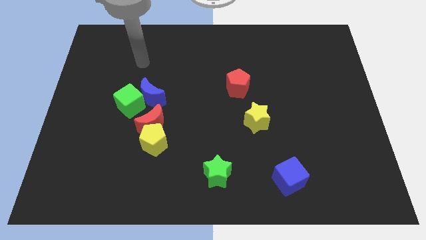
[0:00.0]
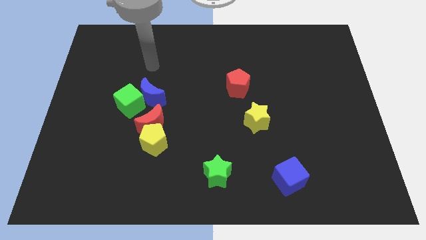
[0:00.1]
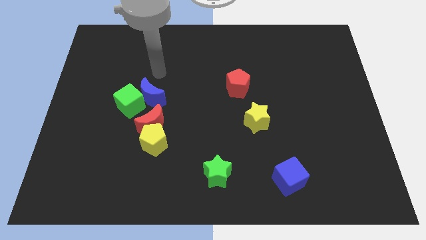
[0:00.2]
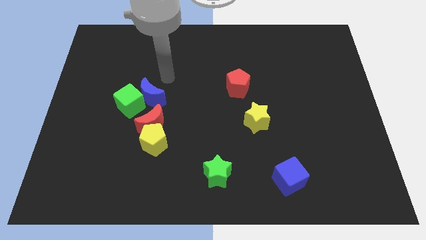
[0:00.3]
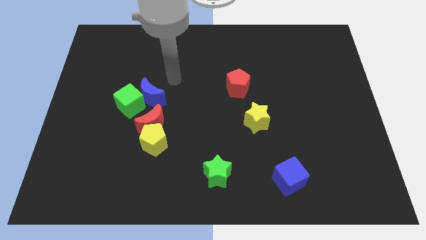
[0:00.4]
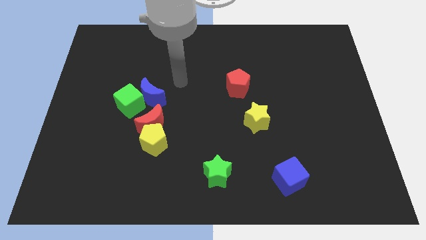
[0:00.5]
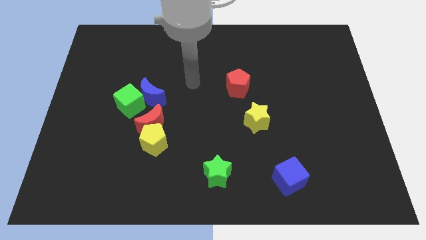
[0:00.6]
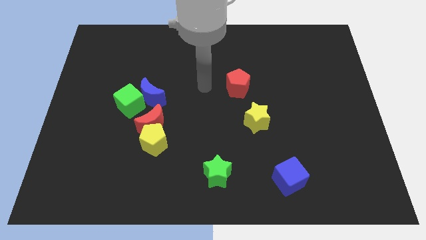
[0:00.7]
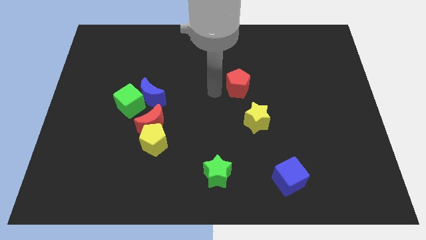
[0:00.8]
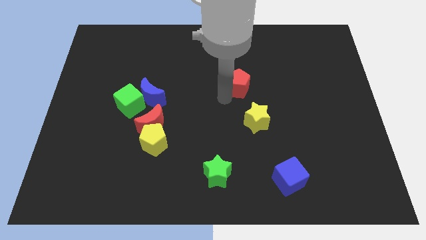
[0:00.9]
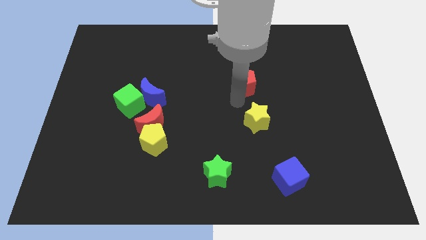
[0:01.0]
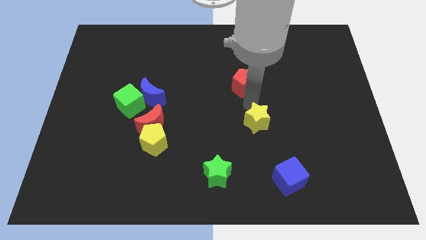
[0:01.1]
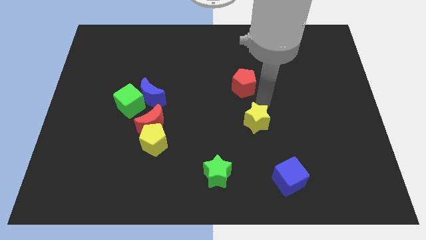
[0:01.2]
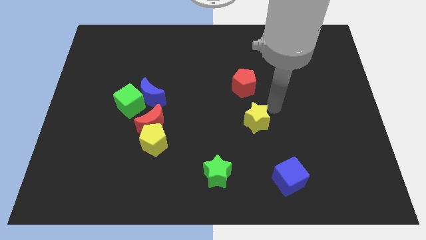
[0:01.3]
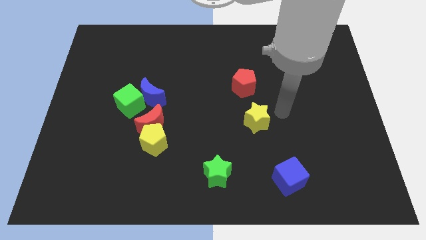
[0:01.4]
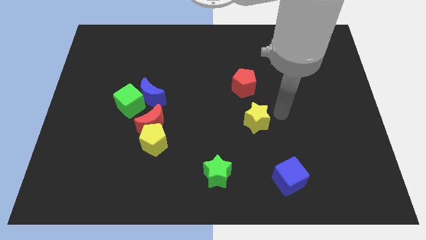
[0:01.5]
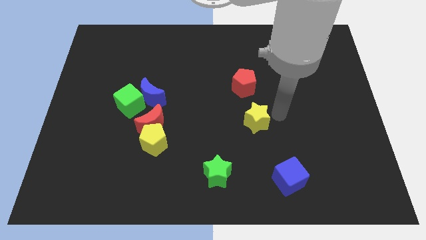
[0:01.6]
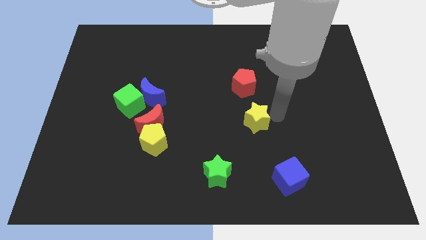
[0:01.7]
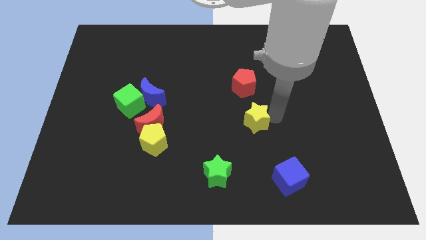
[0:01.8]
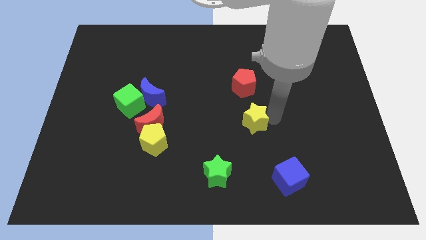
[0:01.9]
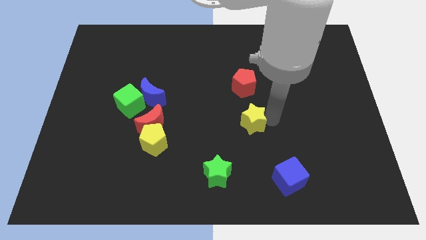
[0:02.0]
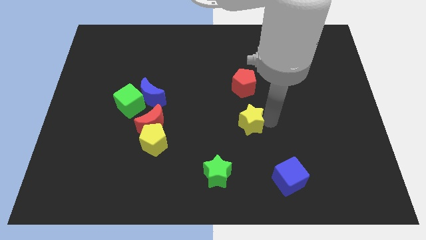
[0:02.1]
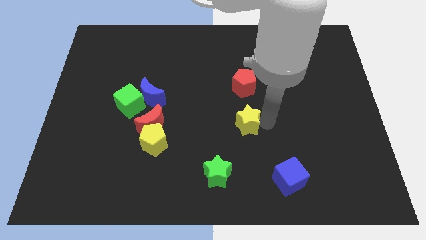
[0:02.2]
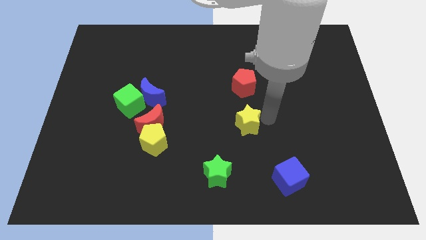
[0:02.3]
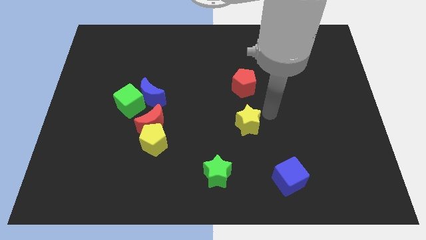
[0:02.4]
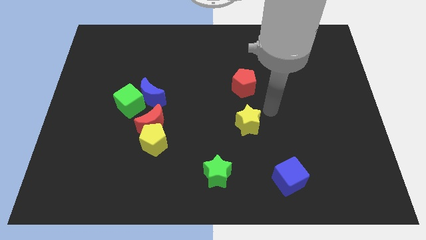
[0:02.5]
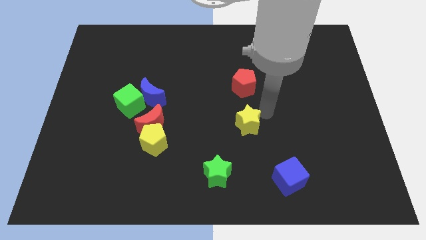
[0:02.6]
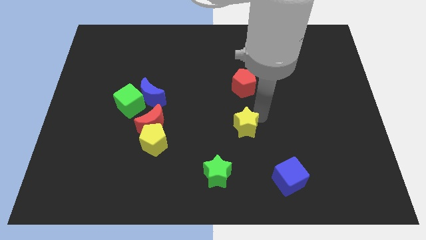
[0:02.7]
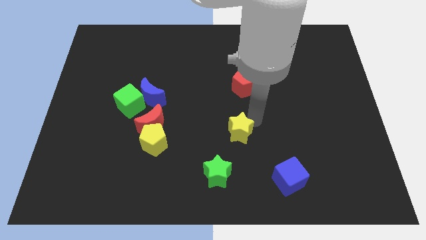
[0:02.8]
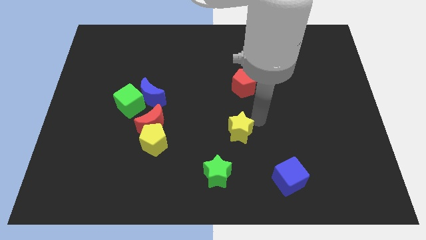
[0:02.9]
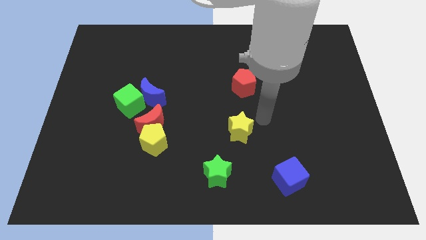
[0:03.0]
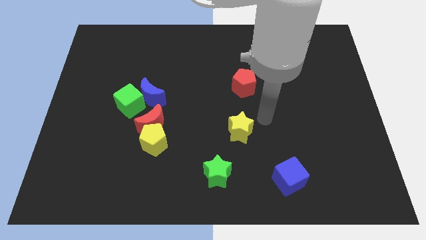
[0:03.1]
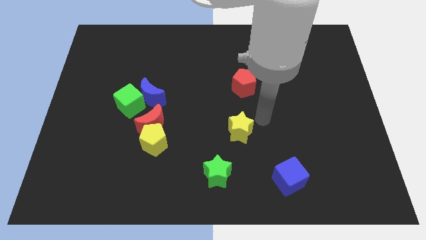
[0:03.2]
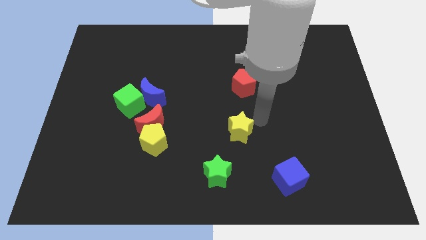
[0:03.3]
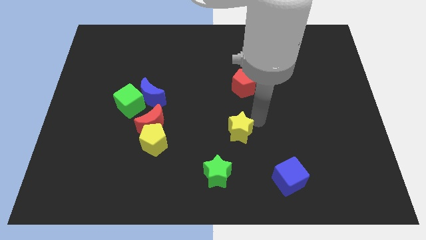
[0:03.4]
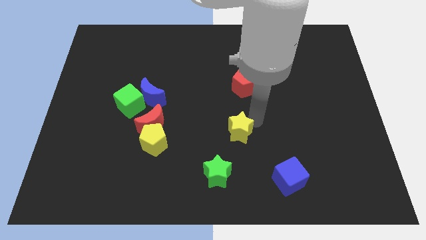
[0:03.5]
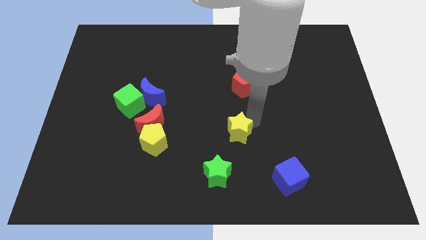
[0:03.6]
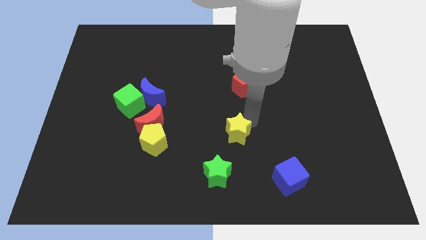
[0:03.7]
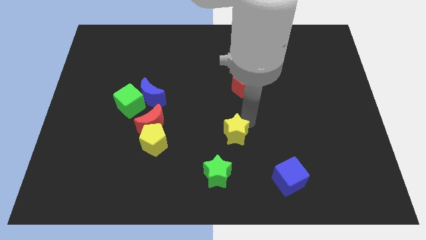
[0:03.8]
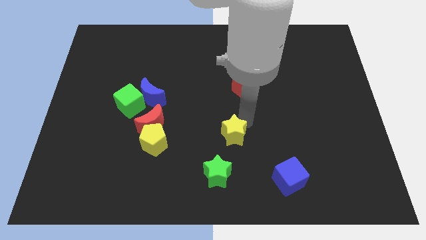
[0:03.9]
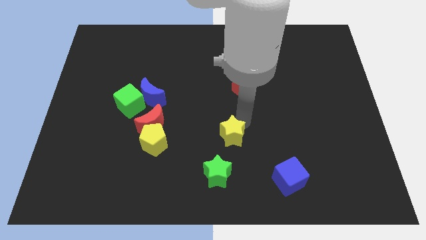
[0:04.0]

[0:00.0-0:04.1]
move the yellow star down and then to the left a little

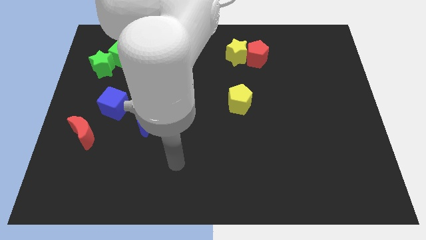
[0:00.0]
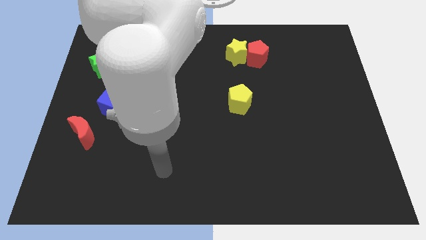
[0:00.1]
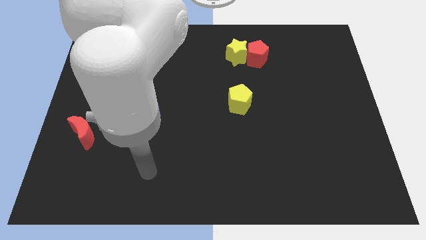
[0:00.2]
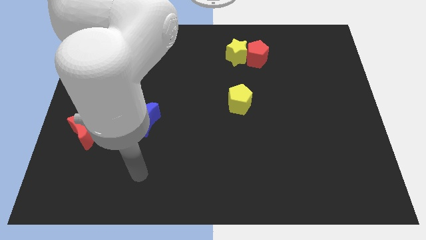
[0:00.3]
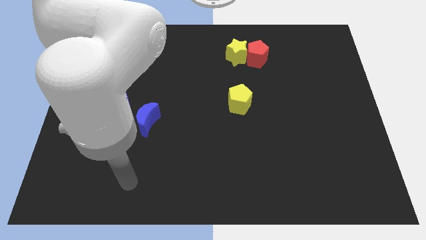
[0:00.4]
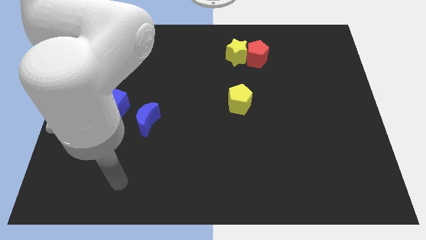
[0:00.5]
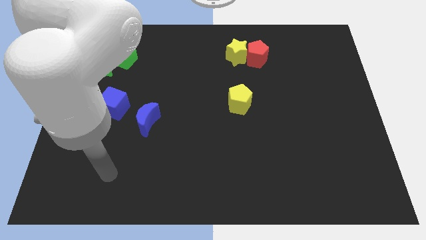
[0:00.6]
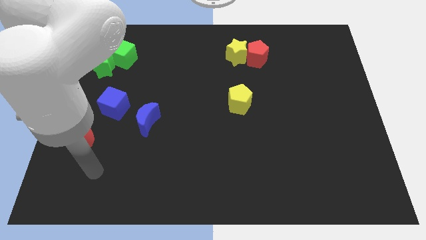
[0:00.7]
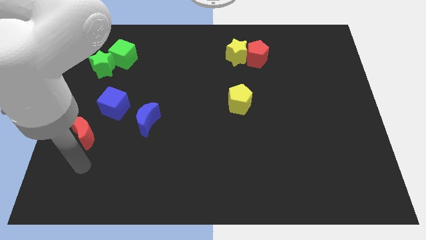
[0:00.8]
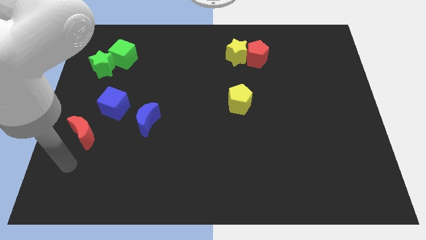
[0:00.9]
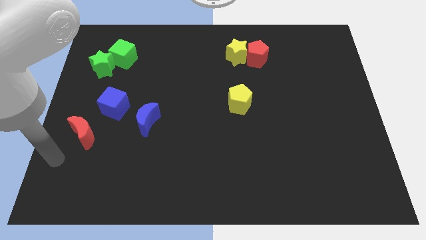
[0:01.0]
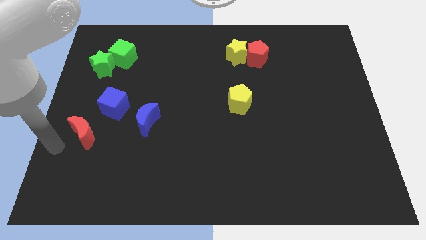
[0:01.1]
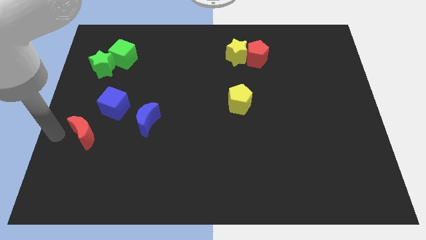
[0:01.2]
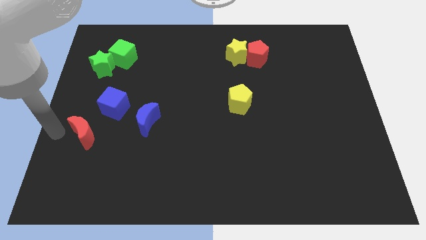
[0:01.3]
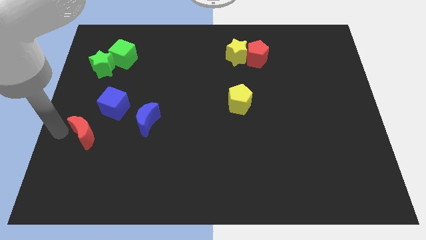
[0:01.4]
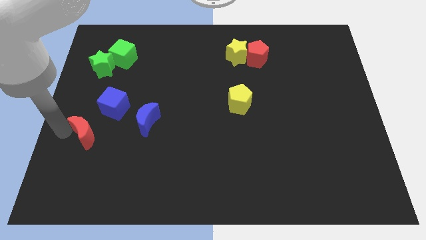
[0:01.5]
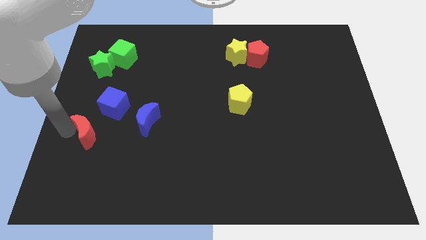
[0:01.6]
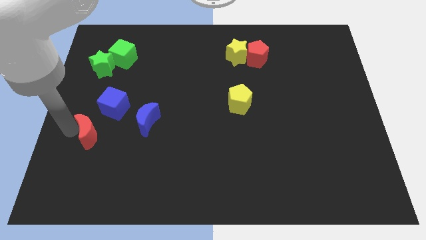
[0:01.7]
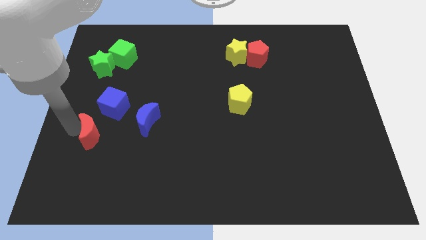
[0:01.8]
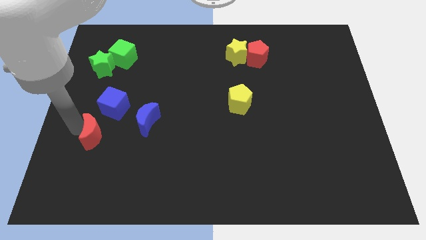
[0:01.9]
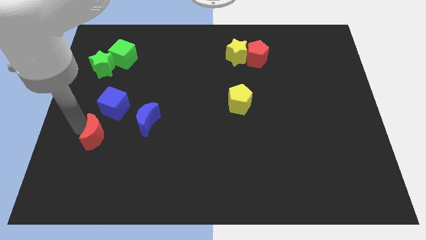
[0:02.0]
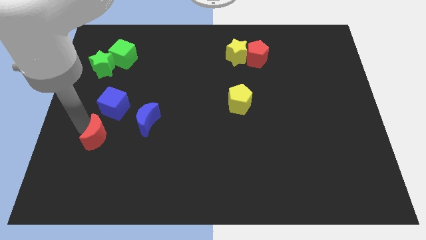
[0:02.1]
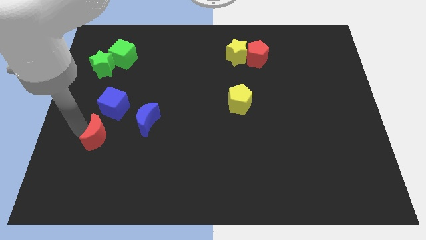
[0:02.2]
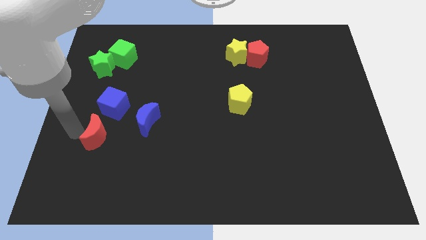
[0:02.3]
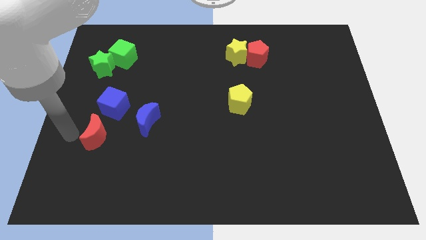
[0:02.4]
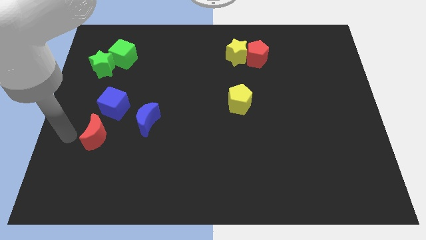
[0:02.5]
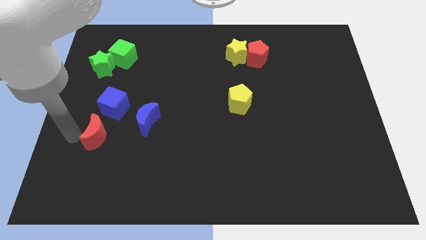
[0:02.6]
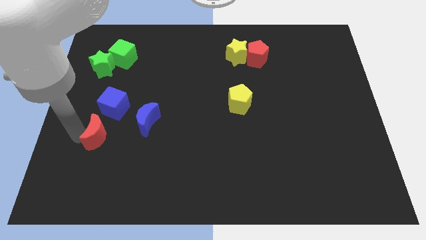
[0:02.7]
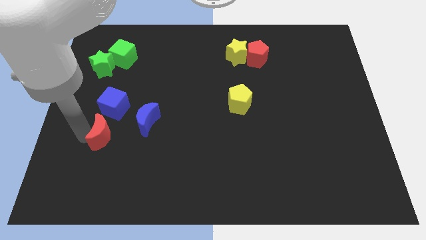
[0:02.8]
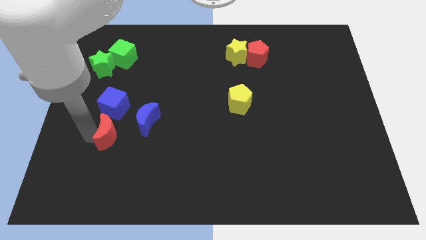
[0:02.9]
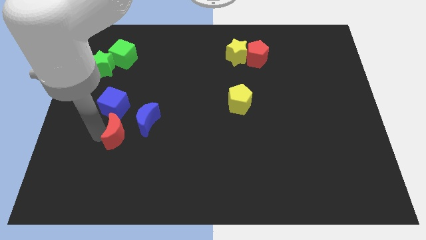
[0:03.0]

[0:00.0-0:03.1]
push the red moon right slightly

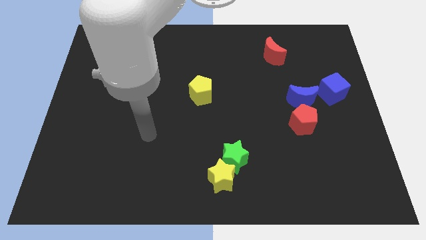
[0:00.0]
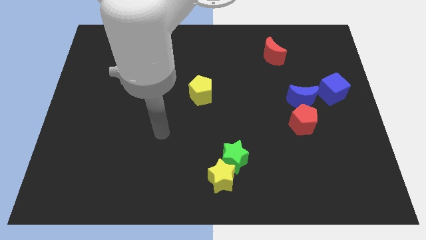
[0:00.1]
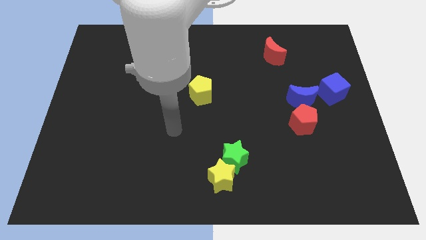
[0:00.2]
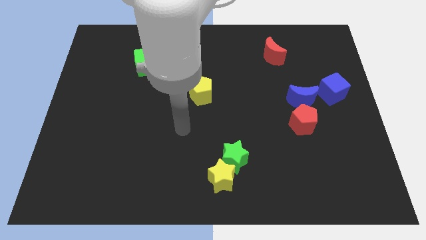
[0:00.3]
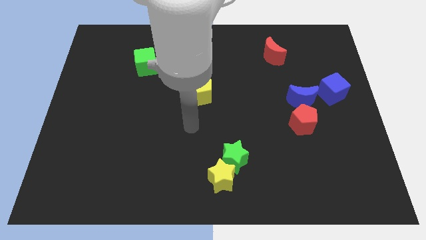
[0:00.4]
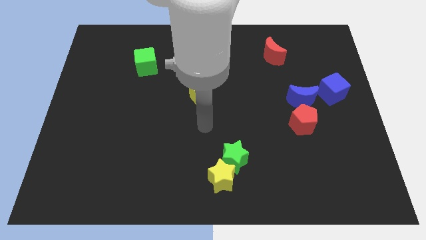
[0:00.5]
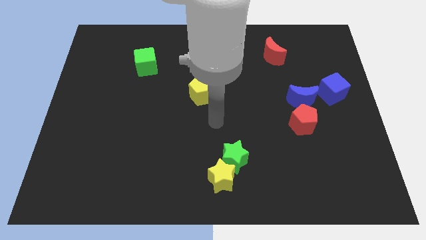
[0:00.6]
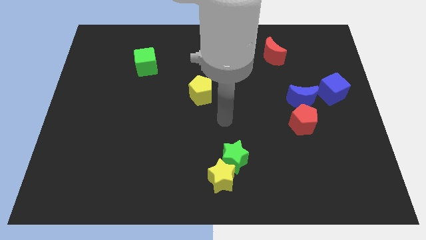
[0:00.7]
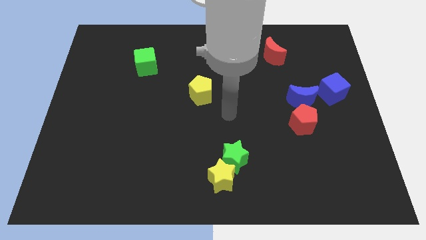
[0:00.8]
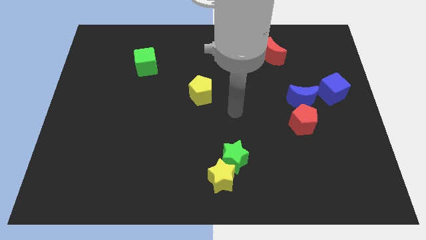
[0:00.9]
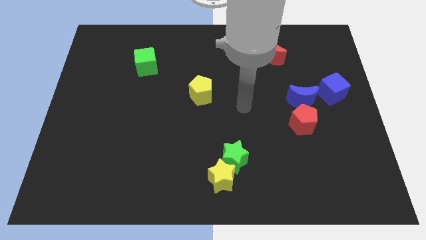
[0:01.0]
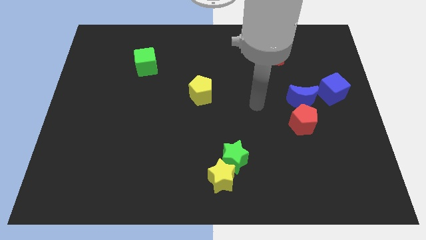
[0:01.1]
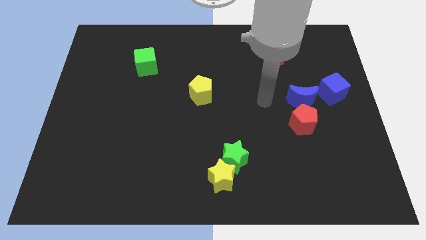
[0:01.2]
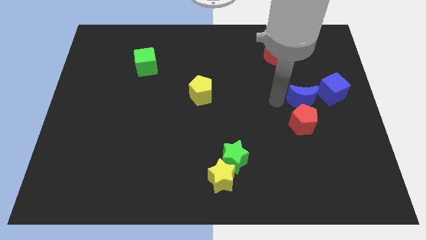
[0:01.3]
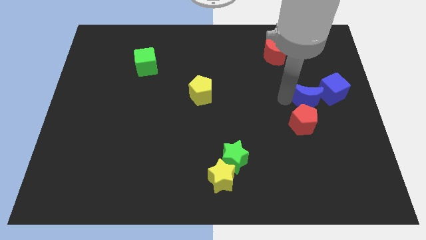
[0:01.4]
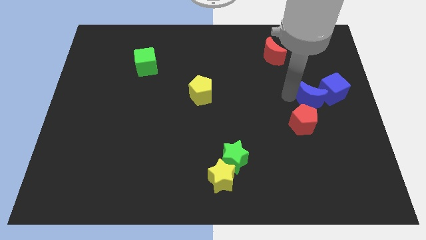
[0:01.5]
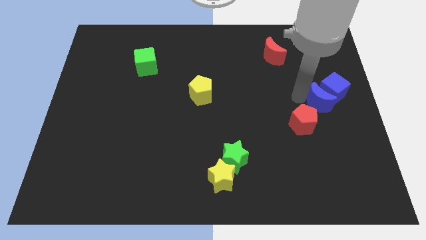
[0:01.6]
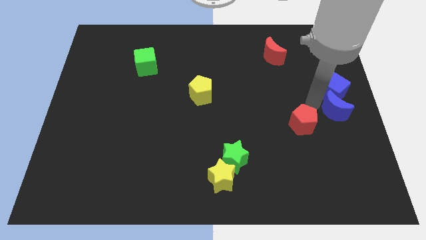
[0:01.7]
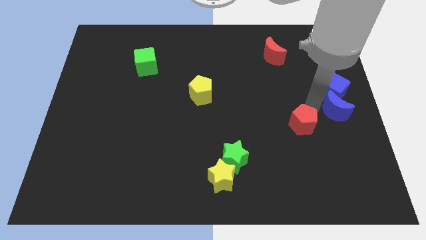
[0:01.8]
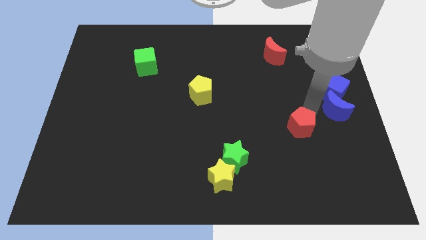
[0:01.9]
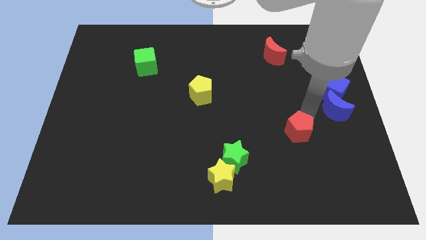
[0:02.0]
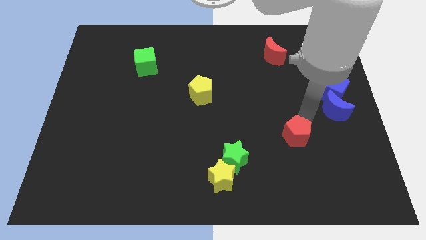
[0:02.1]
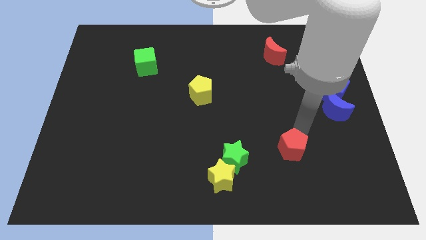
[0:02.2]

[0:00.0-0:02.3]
slide the red pentagon somewhat downwards and to the left
